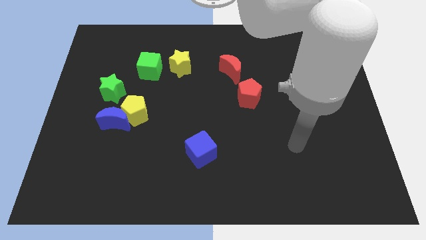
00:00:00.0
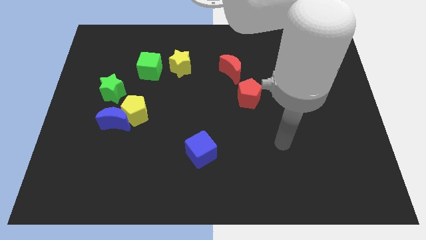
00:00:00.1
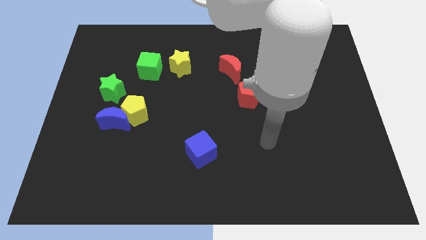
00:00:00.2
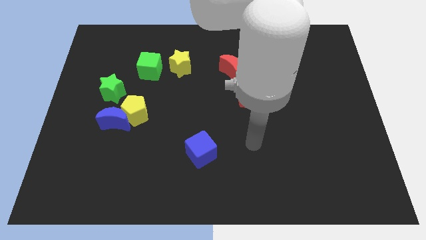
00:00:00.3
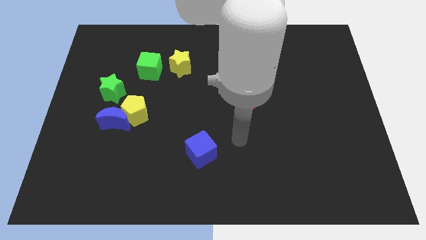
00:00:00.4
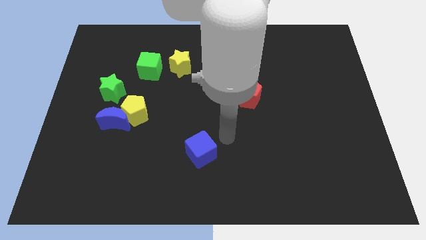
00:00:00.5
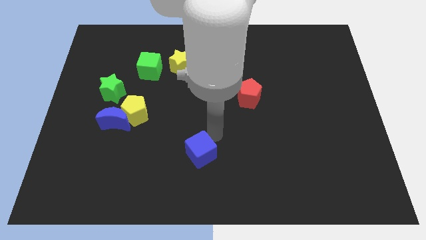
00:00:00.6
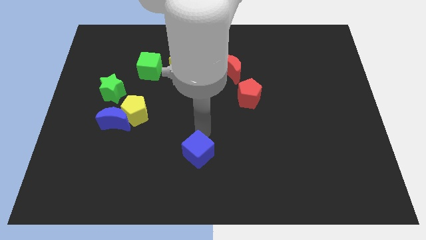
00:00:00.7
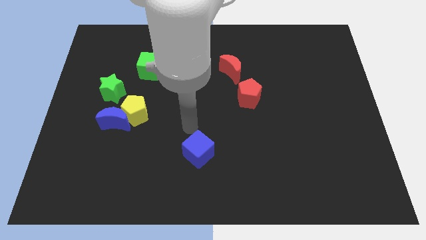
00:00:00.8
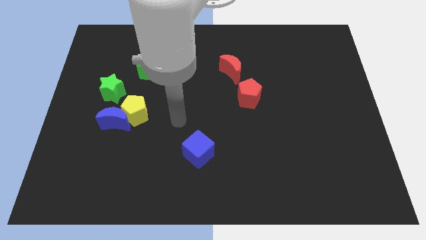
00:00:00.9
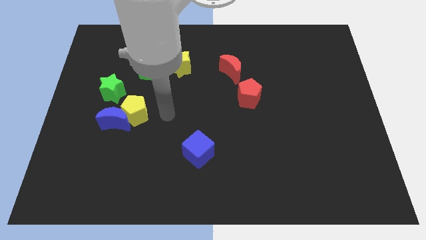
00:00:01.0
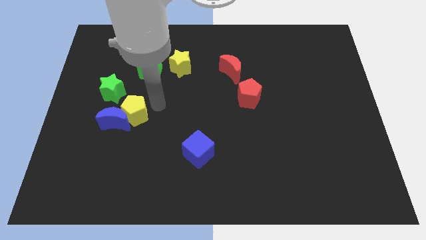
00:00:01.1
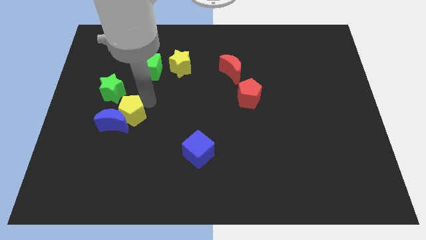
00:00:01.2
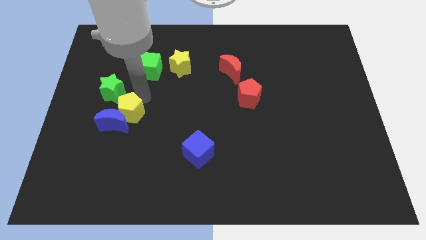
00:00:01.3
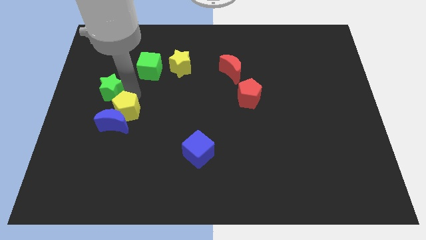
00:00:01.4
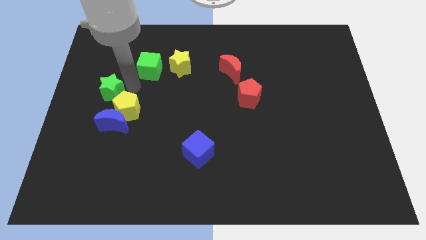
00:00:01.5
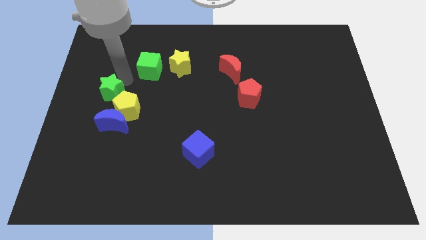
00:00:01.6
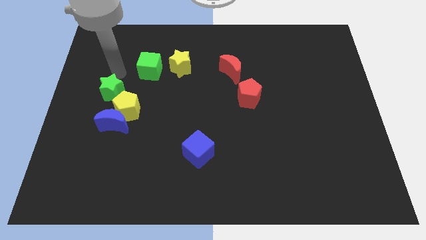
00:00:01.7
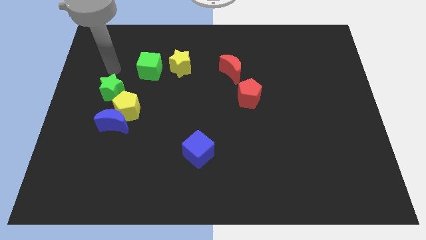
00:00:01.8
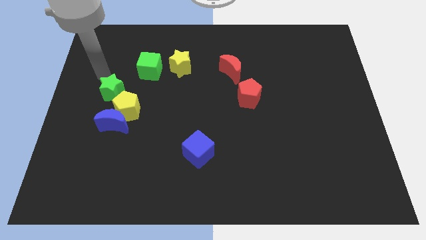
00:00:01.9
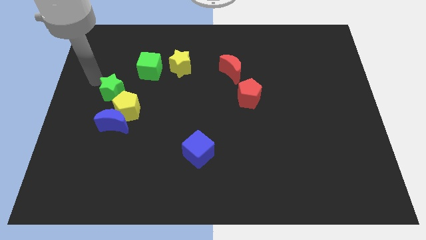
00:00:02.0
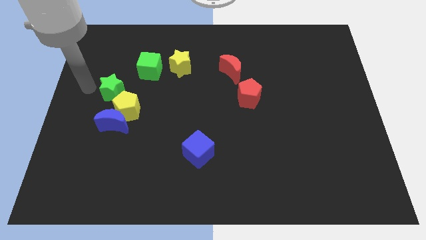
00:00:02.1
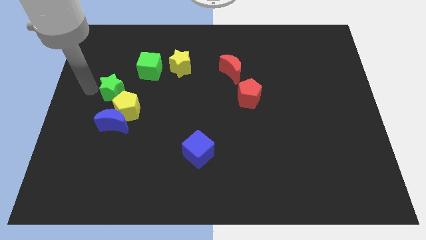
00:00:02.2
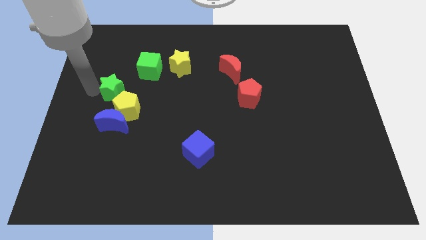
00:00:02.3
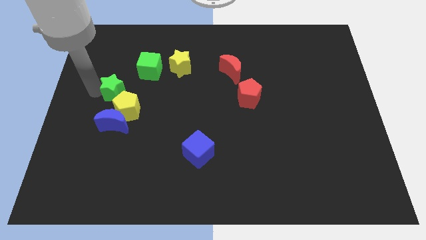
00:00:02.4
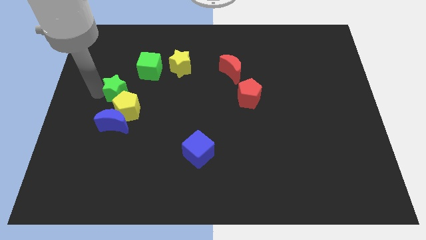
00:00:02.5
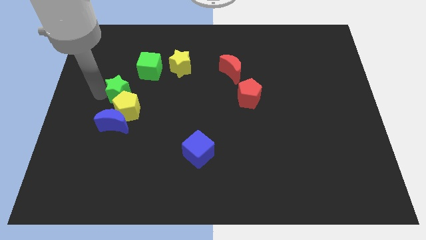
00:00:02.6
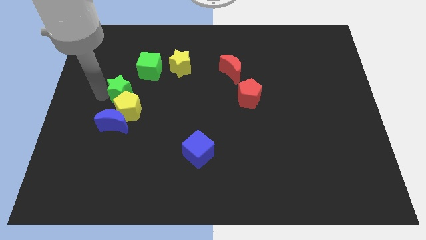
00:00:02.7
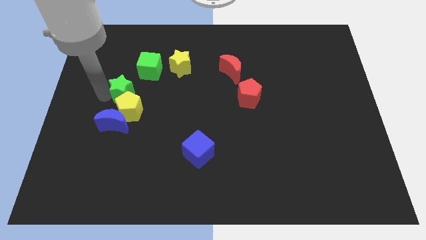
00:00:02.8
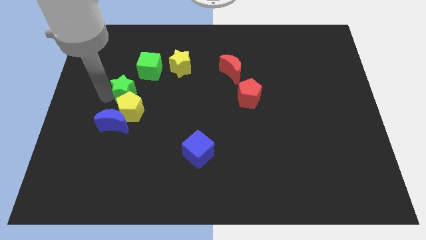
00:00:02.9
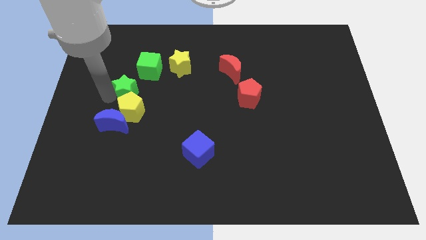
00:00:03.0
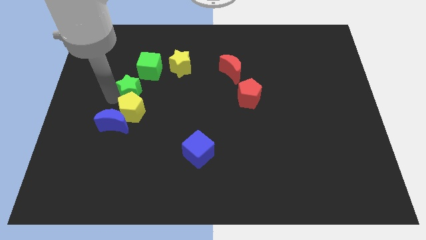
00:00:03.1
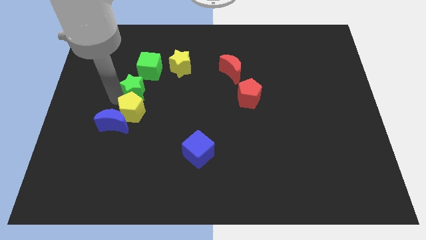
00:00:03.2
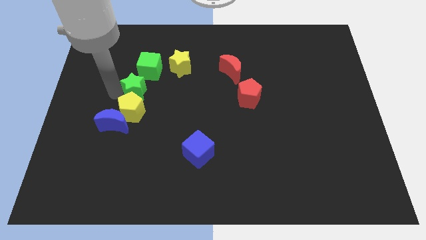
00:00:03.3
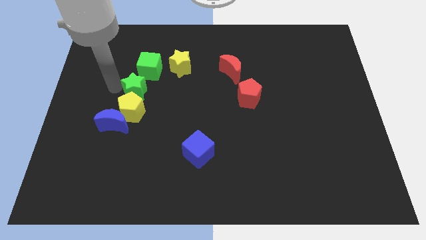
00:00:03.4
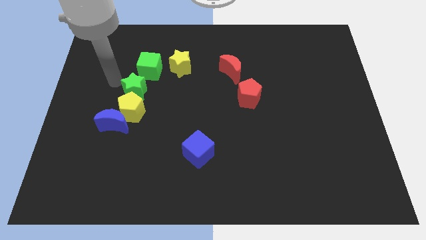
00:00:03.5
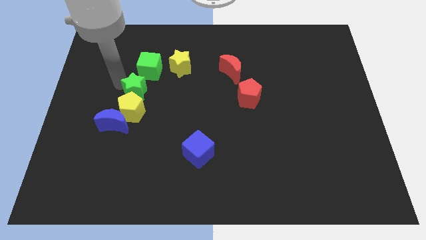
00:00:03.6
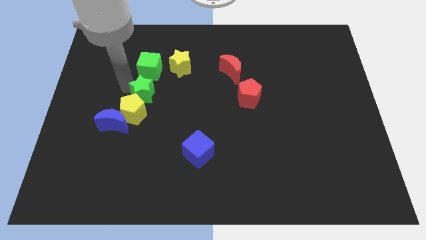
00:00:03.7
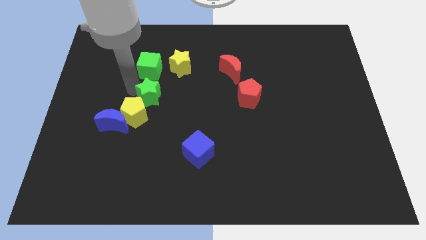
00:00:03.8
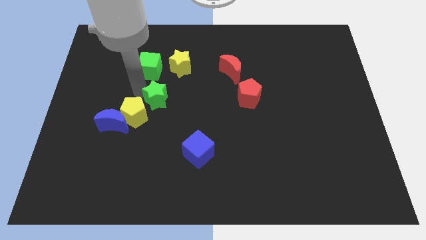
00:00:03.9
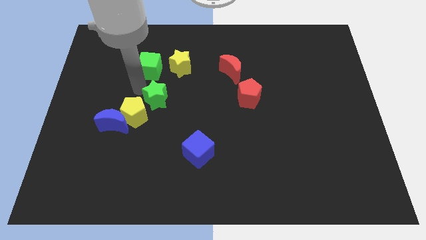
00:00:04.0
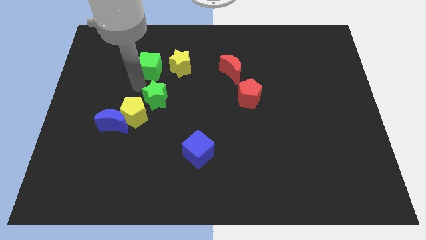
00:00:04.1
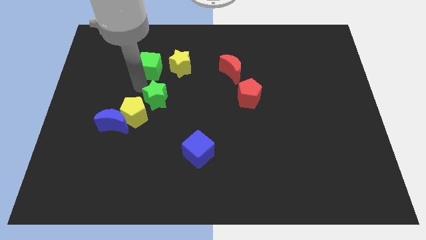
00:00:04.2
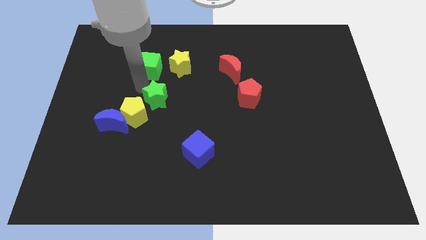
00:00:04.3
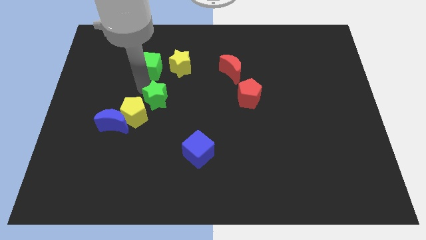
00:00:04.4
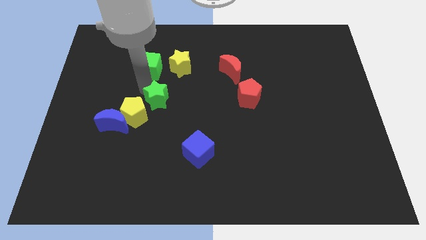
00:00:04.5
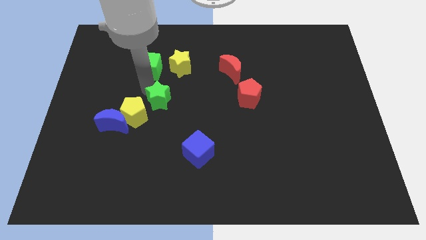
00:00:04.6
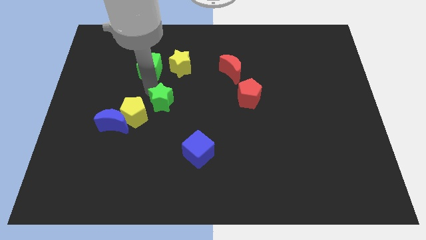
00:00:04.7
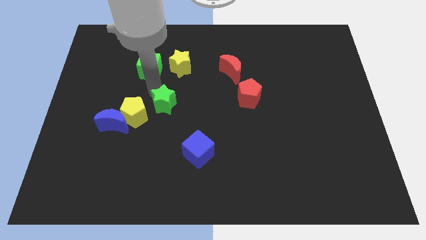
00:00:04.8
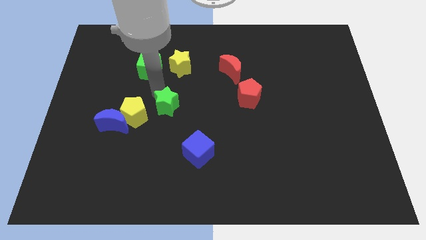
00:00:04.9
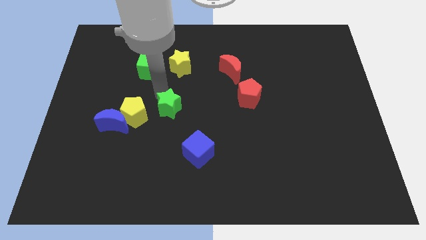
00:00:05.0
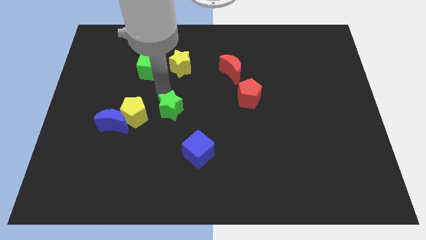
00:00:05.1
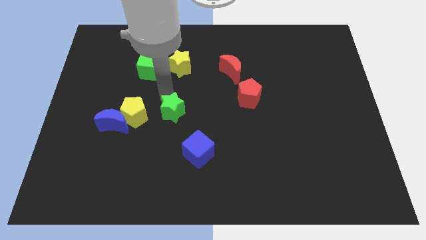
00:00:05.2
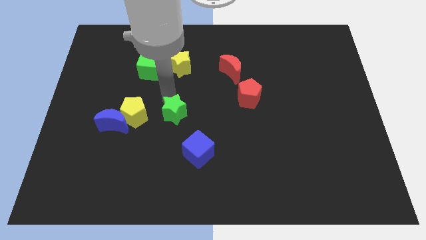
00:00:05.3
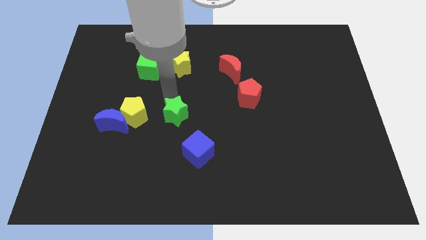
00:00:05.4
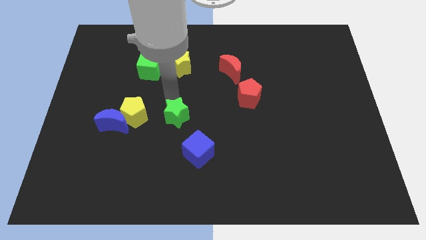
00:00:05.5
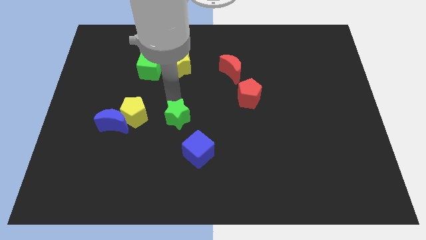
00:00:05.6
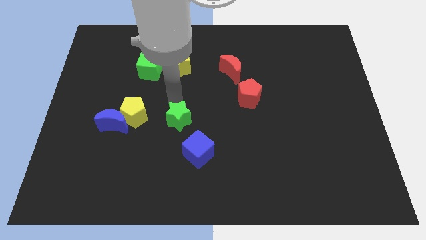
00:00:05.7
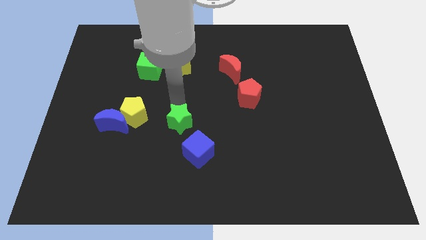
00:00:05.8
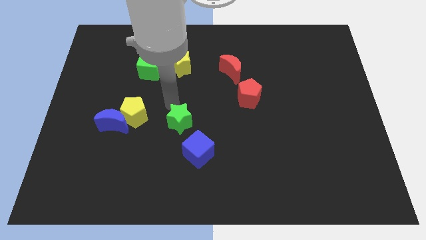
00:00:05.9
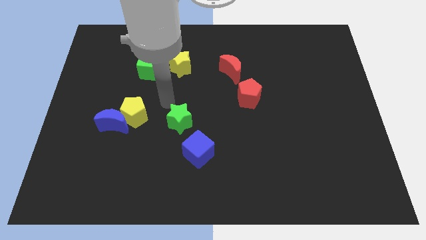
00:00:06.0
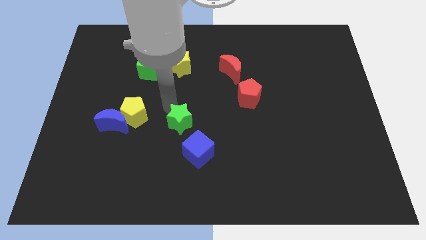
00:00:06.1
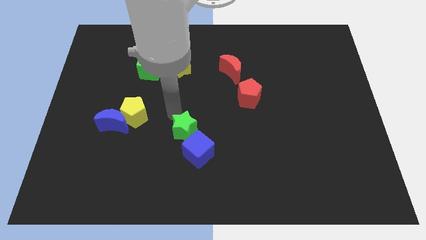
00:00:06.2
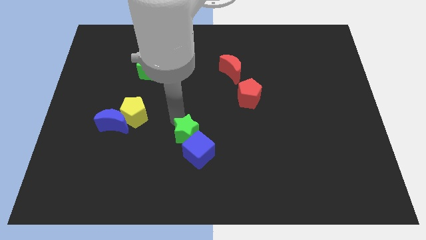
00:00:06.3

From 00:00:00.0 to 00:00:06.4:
move the green star close to the blue cube
